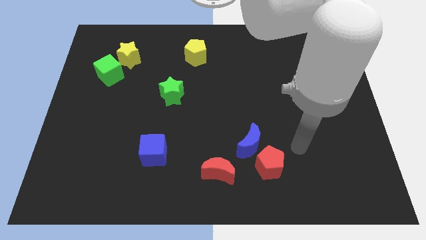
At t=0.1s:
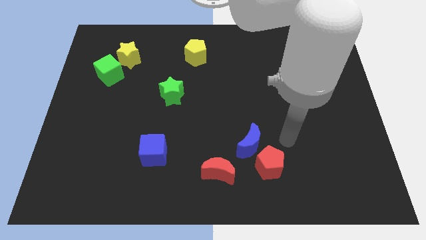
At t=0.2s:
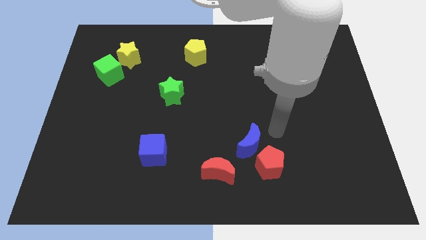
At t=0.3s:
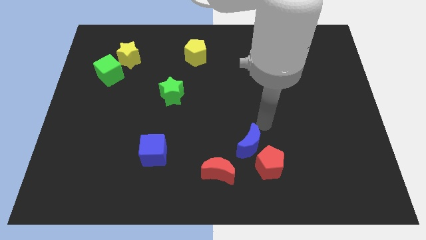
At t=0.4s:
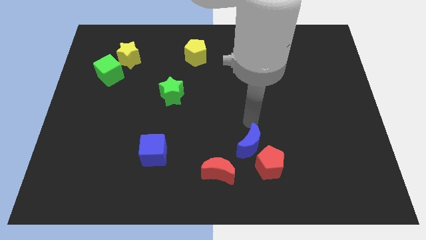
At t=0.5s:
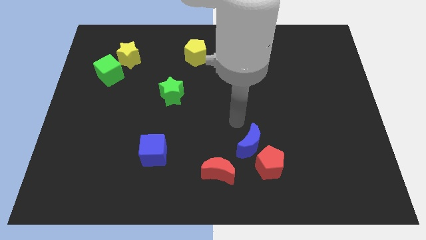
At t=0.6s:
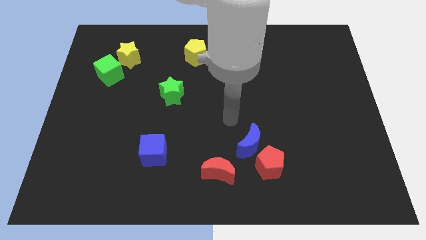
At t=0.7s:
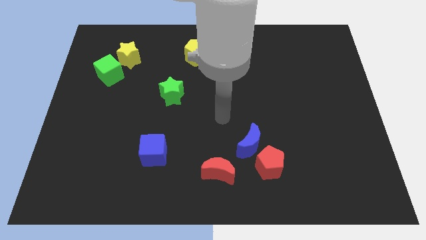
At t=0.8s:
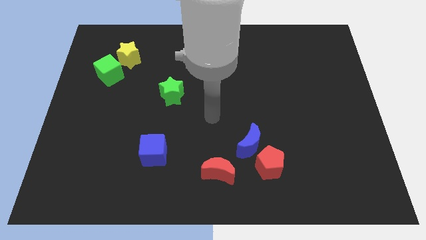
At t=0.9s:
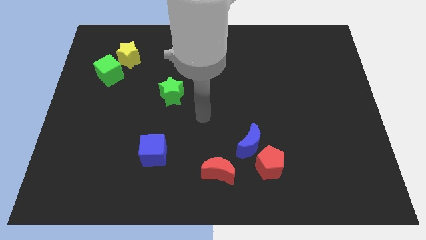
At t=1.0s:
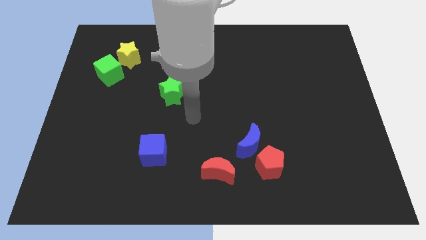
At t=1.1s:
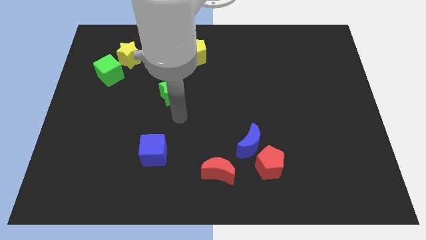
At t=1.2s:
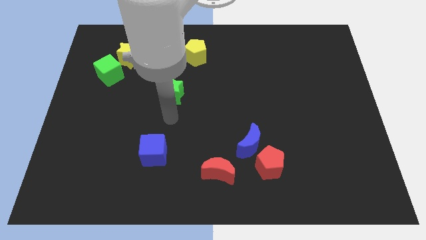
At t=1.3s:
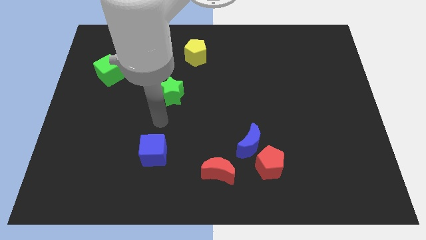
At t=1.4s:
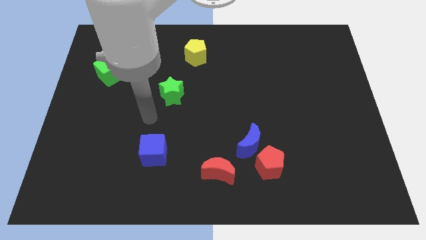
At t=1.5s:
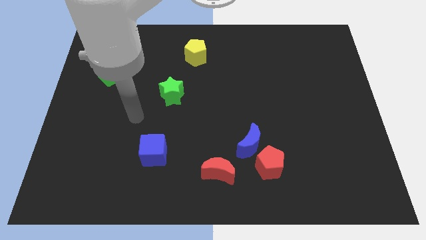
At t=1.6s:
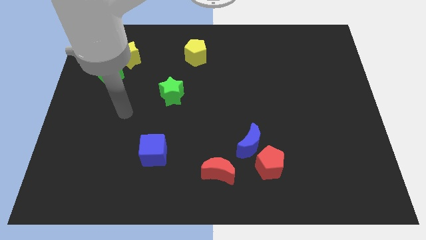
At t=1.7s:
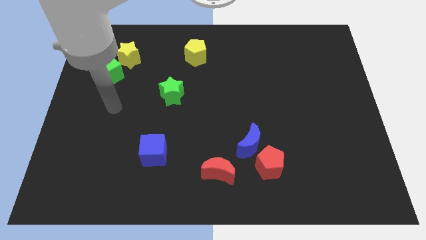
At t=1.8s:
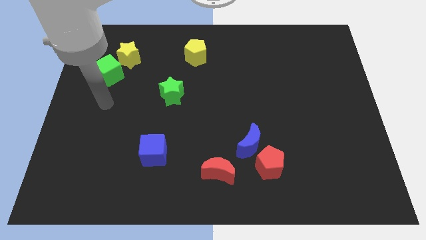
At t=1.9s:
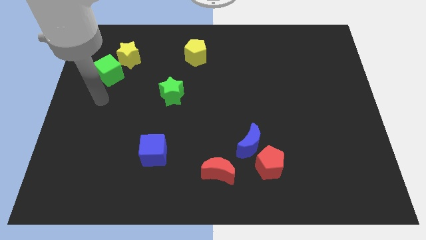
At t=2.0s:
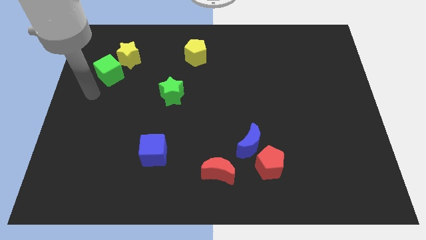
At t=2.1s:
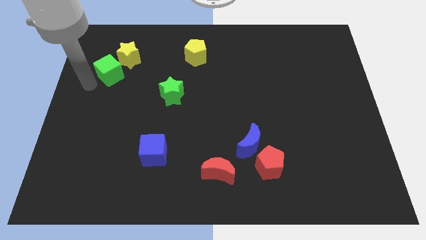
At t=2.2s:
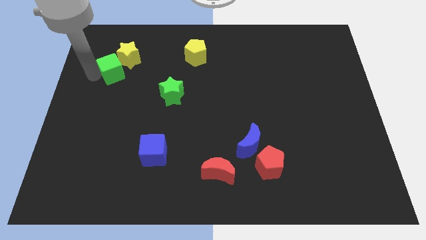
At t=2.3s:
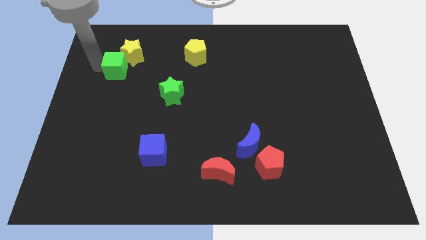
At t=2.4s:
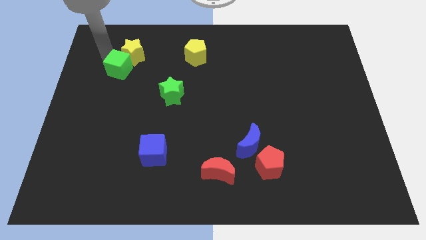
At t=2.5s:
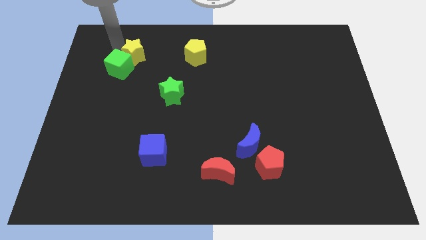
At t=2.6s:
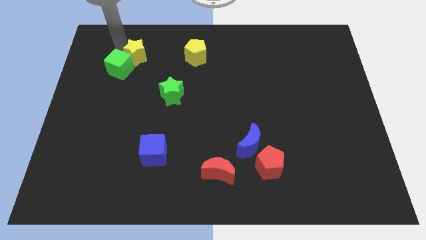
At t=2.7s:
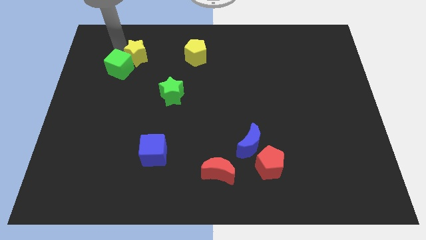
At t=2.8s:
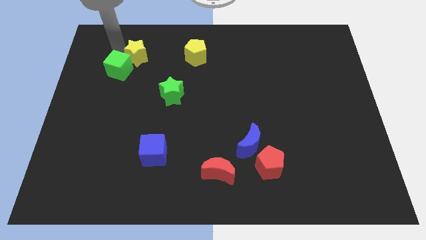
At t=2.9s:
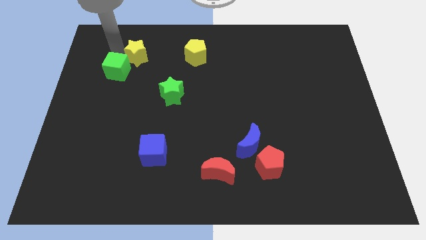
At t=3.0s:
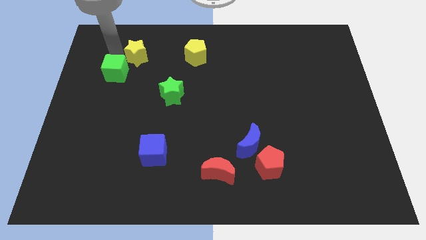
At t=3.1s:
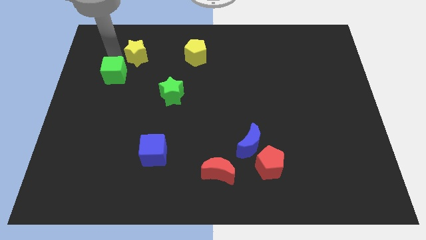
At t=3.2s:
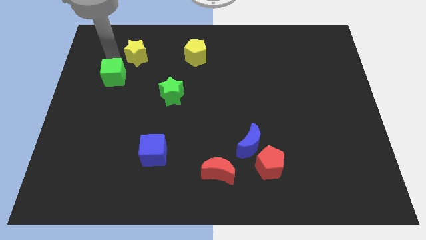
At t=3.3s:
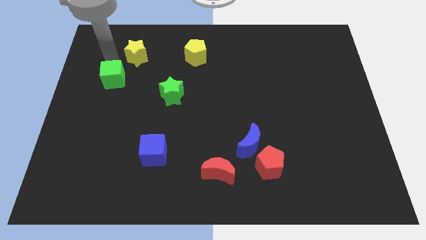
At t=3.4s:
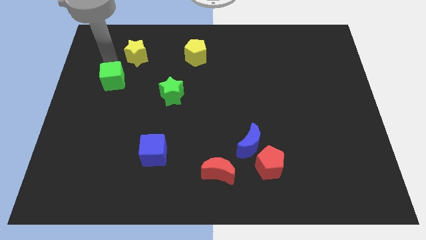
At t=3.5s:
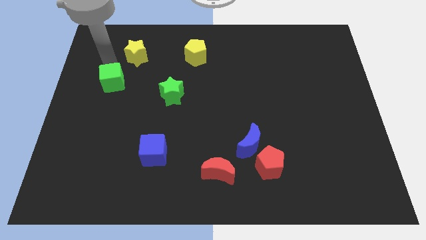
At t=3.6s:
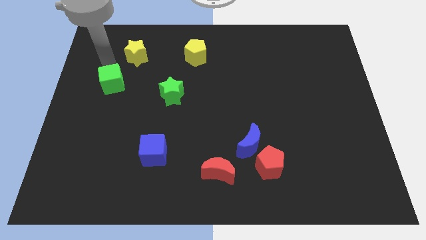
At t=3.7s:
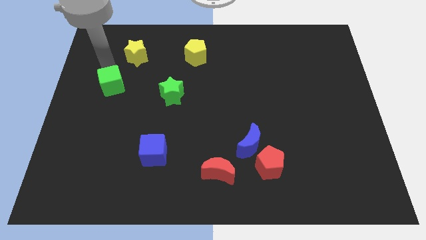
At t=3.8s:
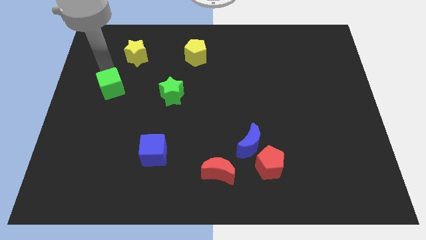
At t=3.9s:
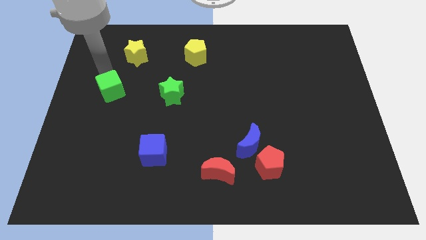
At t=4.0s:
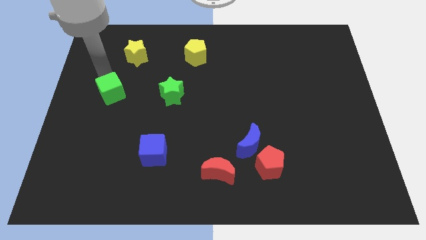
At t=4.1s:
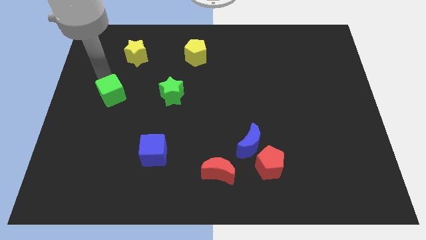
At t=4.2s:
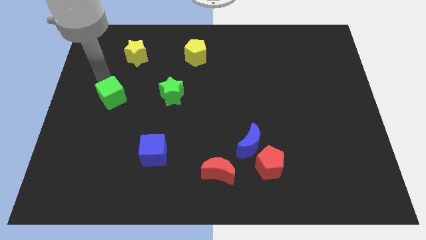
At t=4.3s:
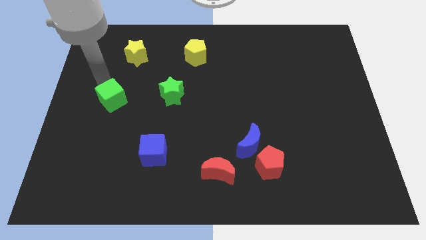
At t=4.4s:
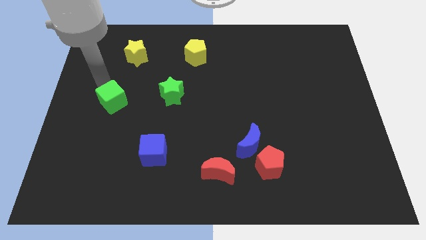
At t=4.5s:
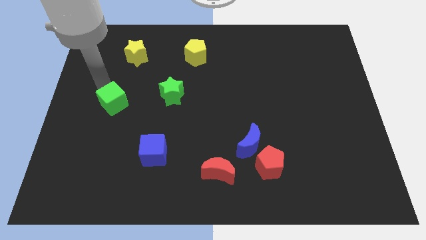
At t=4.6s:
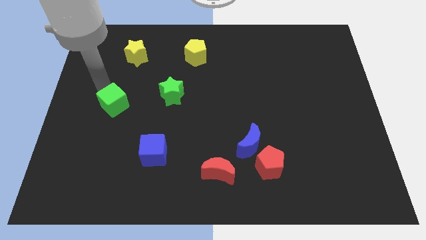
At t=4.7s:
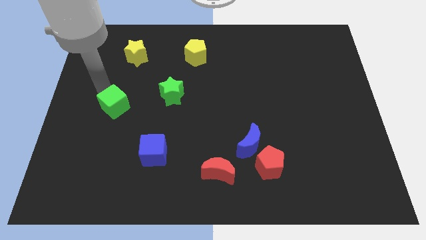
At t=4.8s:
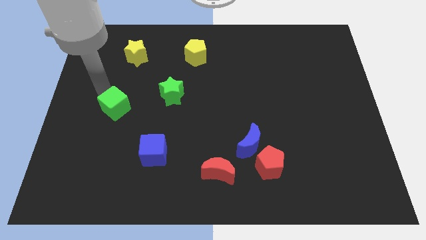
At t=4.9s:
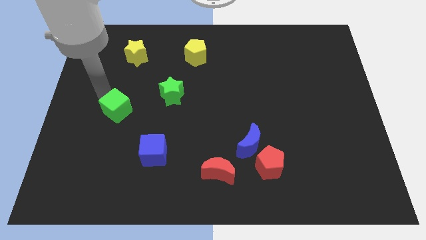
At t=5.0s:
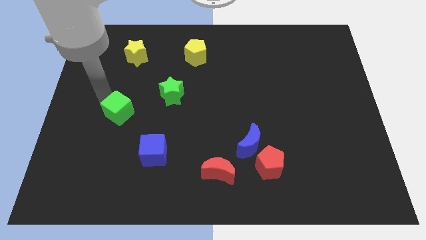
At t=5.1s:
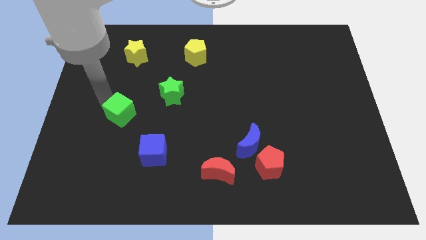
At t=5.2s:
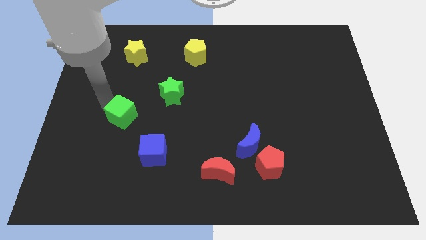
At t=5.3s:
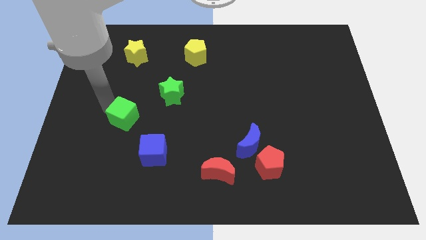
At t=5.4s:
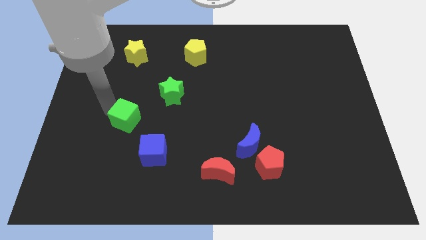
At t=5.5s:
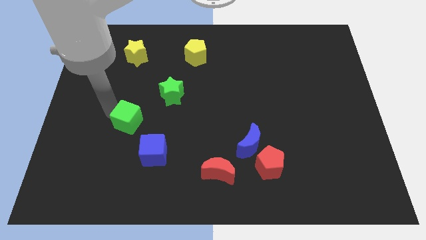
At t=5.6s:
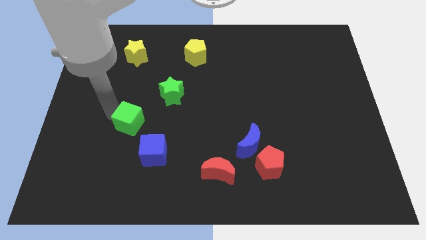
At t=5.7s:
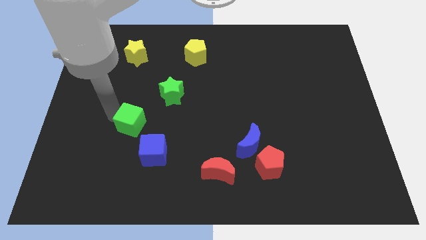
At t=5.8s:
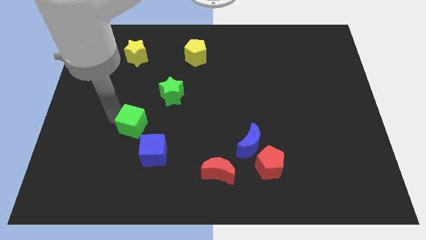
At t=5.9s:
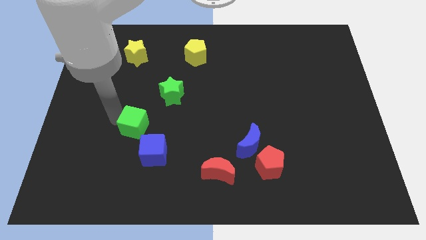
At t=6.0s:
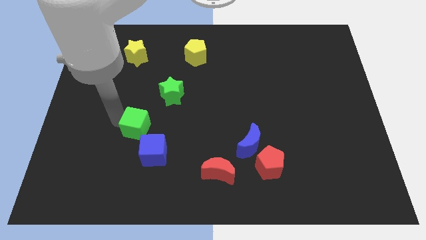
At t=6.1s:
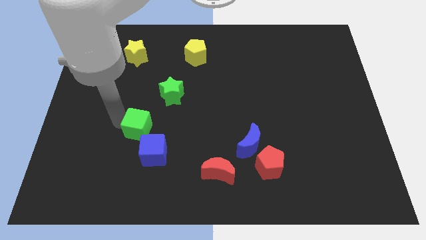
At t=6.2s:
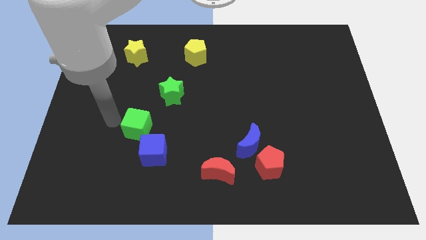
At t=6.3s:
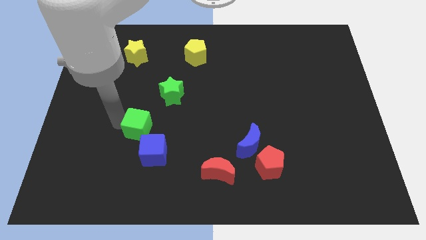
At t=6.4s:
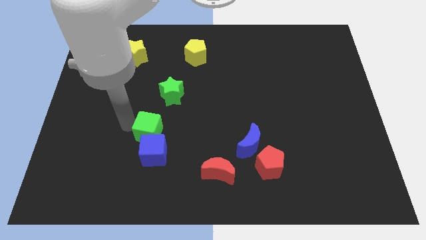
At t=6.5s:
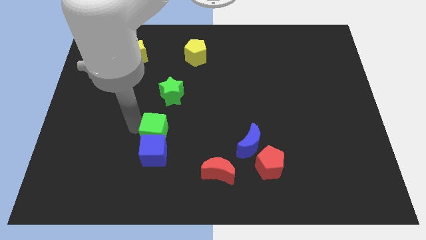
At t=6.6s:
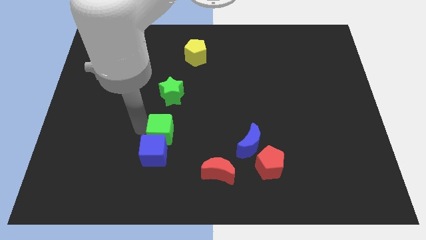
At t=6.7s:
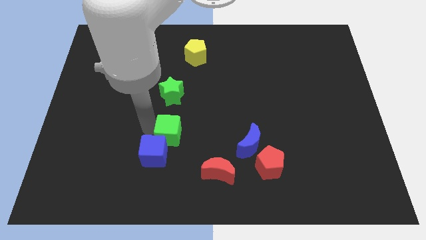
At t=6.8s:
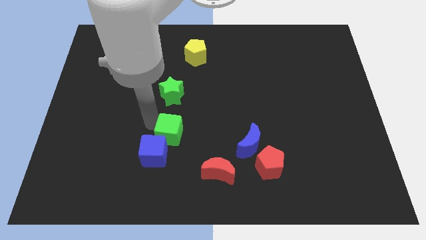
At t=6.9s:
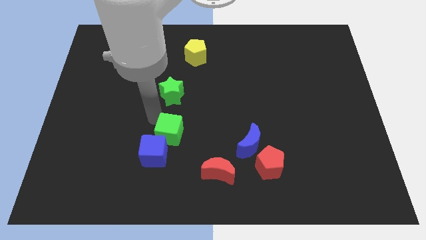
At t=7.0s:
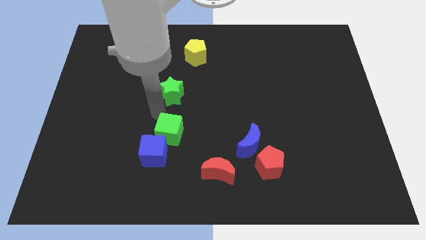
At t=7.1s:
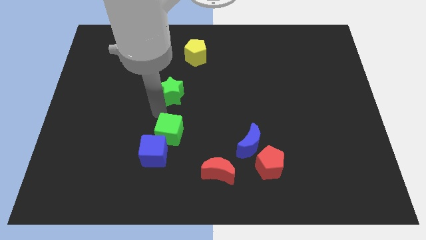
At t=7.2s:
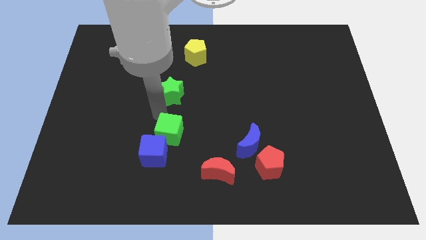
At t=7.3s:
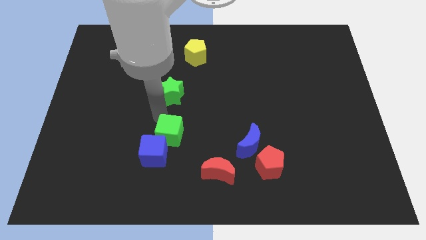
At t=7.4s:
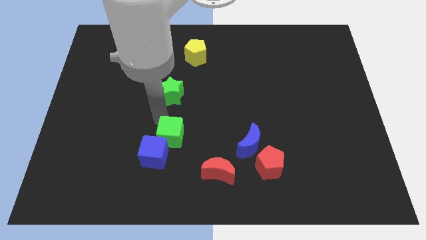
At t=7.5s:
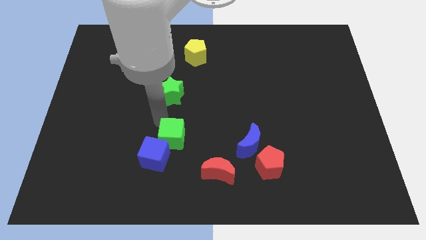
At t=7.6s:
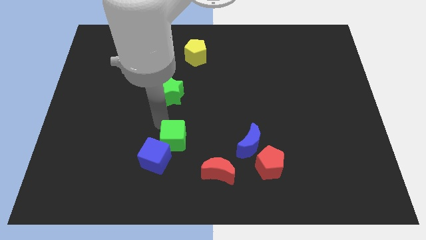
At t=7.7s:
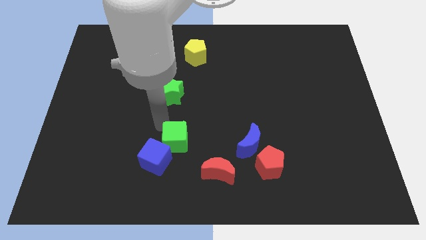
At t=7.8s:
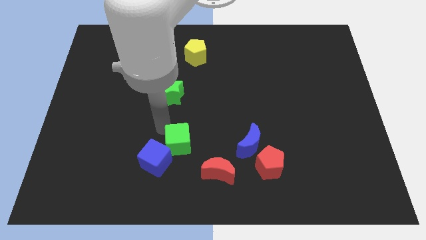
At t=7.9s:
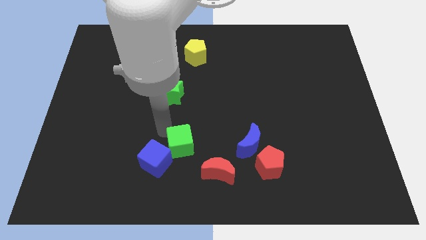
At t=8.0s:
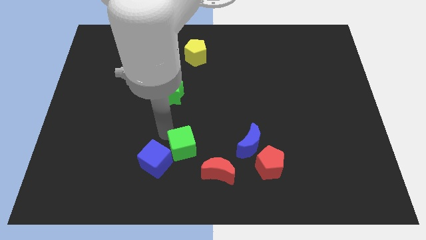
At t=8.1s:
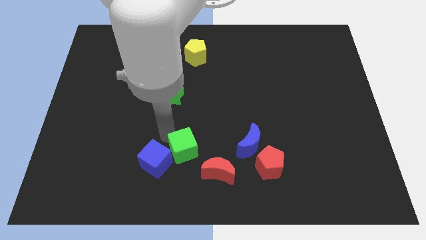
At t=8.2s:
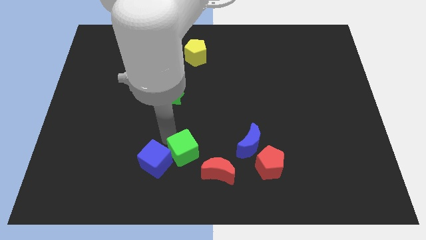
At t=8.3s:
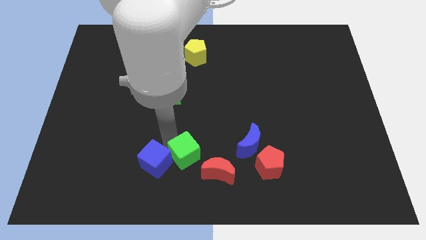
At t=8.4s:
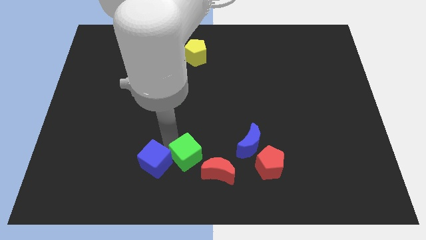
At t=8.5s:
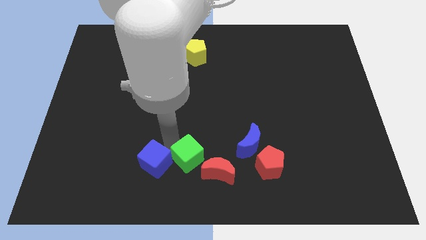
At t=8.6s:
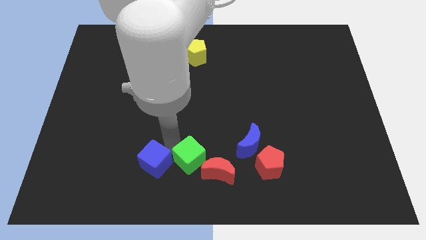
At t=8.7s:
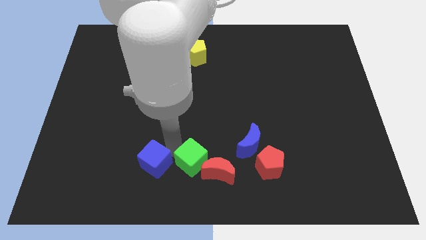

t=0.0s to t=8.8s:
slide the green cube close to the red moon
